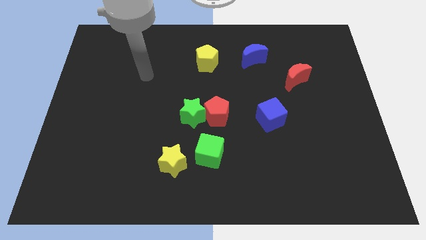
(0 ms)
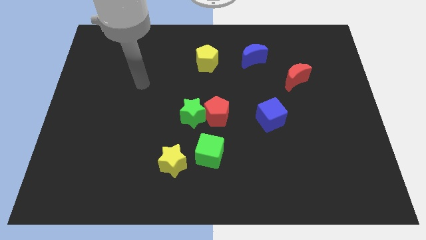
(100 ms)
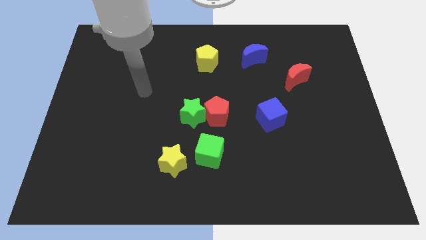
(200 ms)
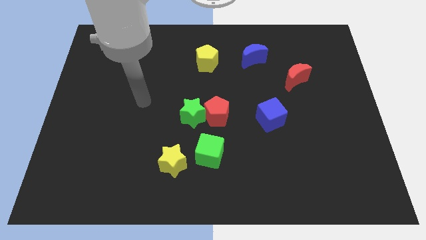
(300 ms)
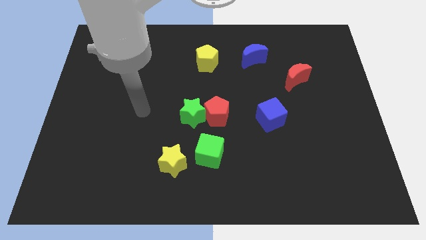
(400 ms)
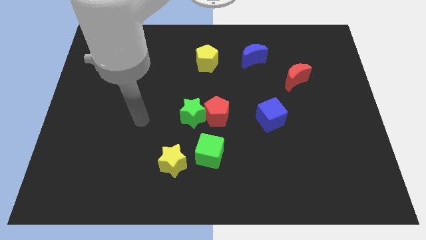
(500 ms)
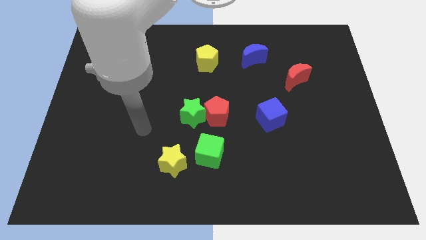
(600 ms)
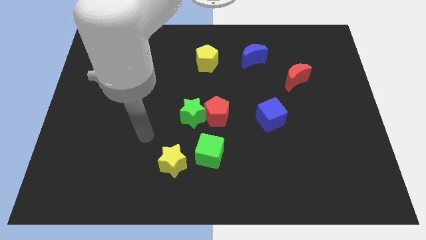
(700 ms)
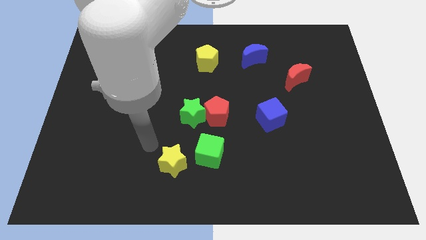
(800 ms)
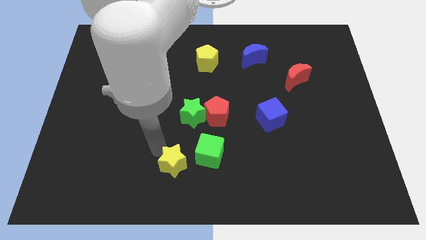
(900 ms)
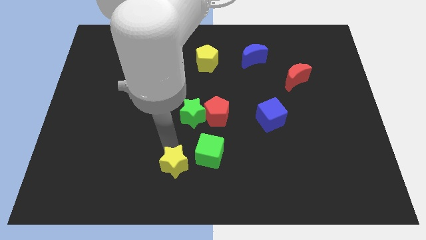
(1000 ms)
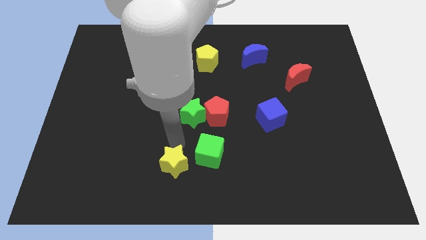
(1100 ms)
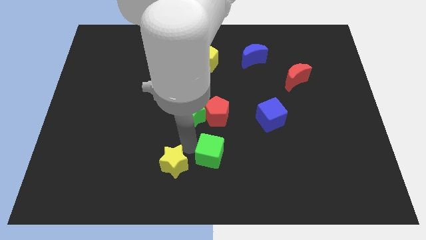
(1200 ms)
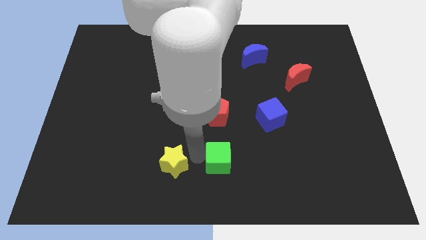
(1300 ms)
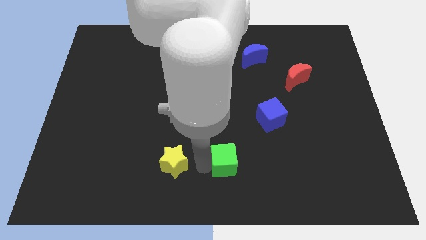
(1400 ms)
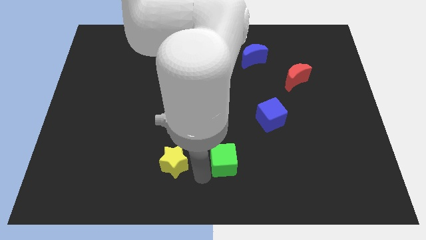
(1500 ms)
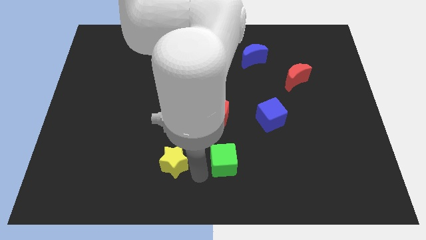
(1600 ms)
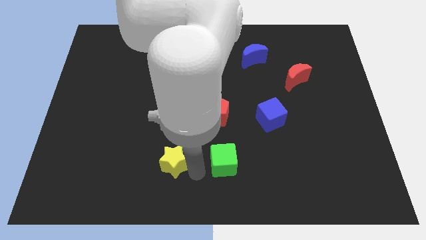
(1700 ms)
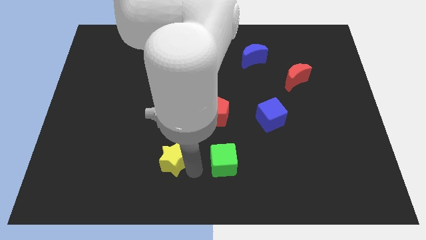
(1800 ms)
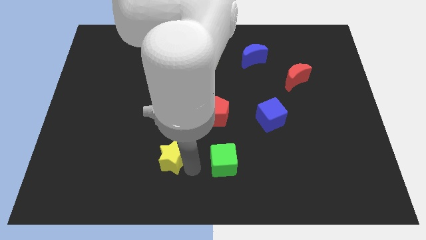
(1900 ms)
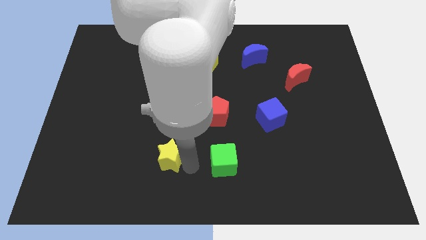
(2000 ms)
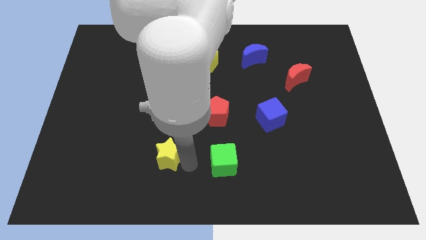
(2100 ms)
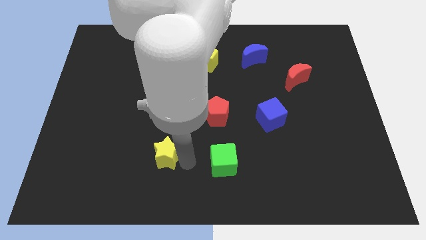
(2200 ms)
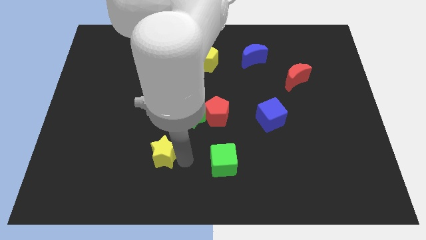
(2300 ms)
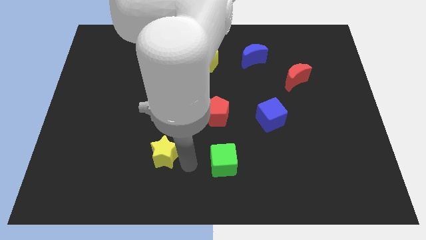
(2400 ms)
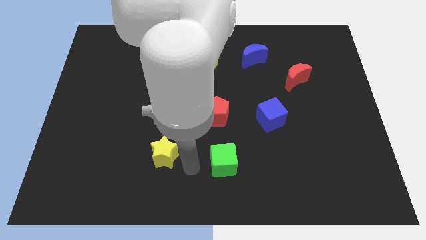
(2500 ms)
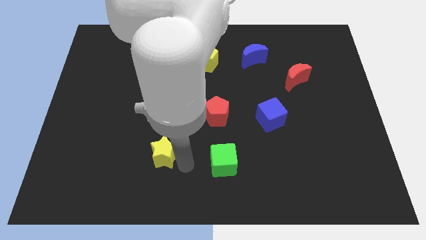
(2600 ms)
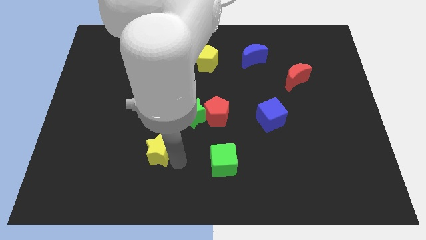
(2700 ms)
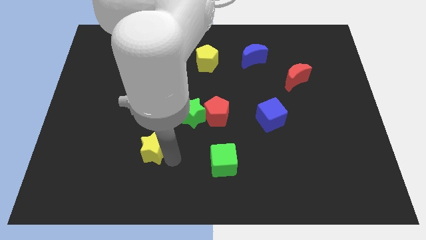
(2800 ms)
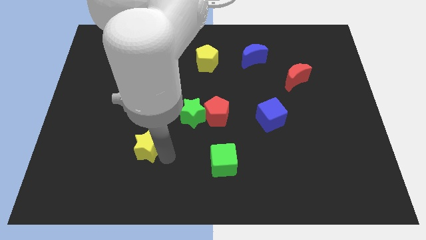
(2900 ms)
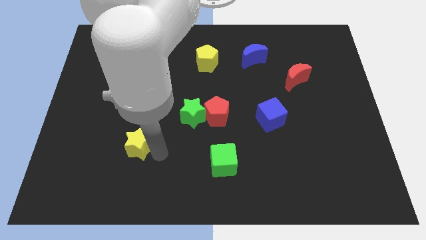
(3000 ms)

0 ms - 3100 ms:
slide the yellow star up and to the left a bit

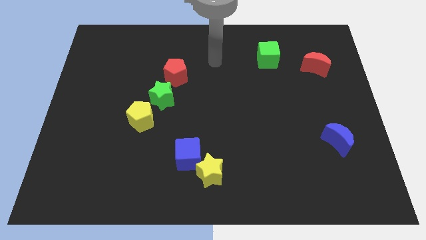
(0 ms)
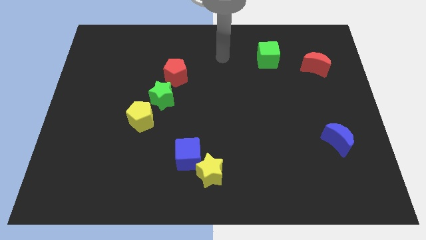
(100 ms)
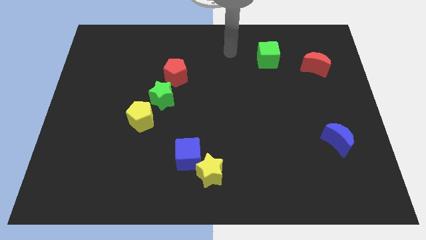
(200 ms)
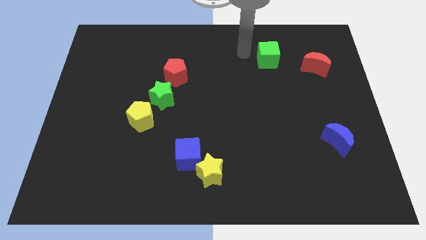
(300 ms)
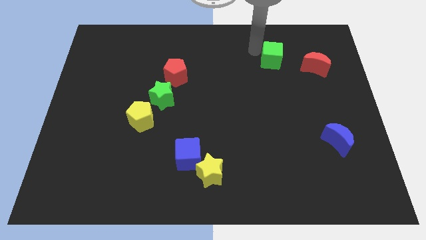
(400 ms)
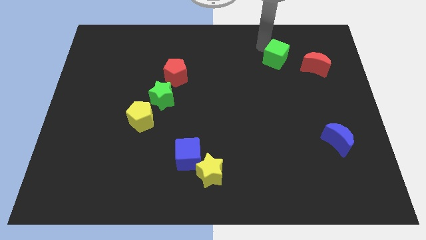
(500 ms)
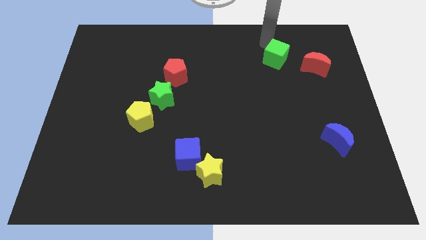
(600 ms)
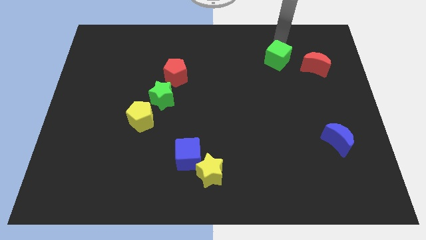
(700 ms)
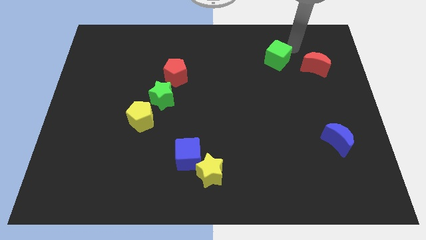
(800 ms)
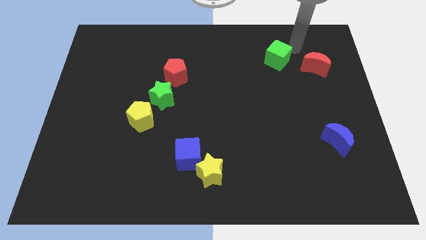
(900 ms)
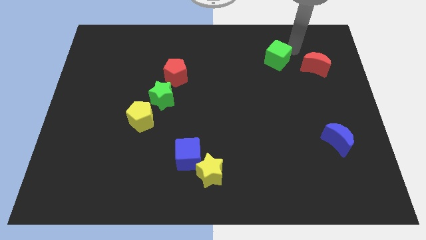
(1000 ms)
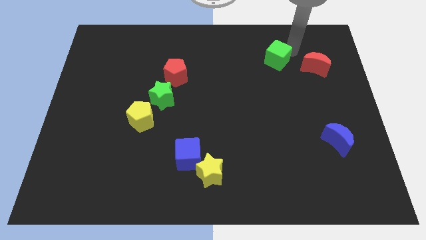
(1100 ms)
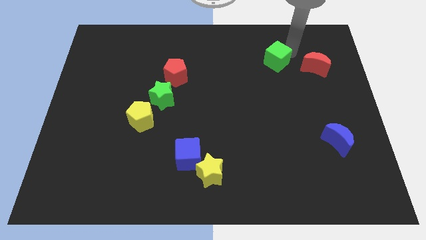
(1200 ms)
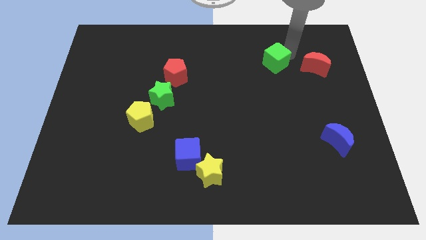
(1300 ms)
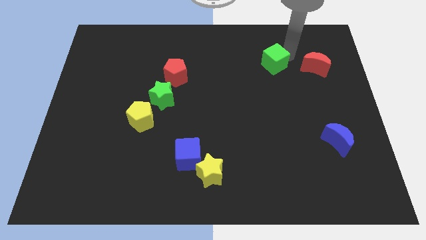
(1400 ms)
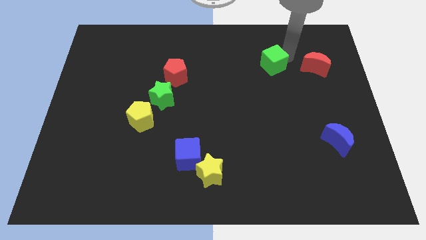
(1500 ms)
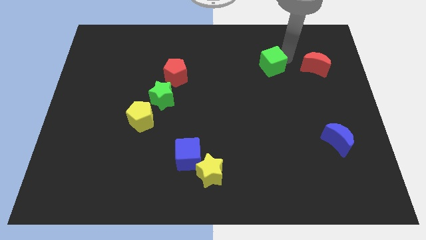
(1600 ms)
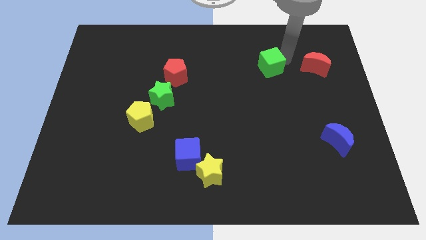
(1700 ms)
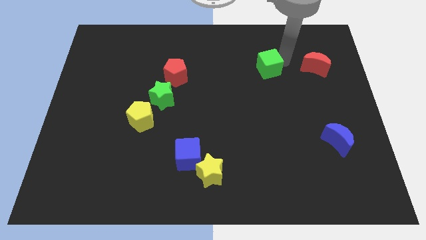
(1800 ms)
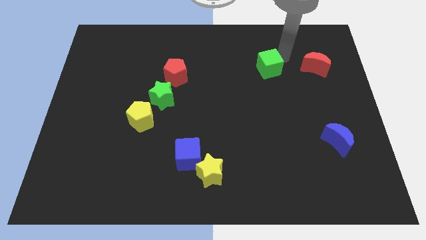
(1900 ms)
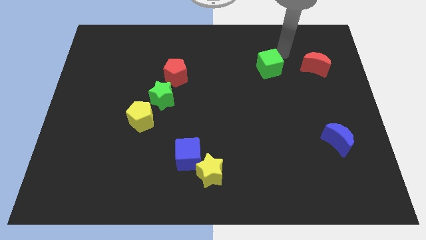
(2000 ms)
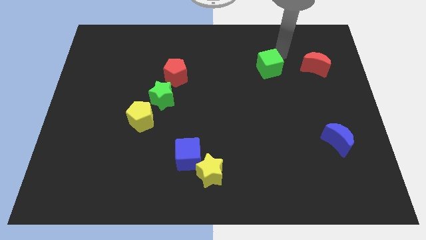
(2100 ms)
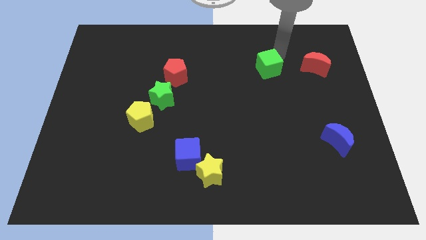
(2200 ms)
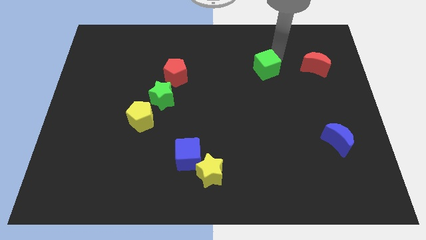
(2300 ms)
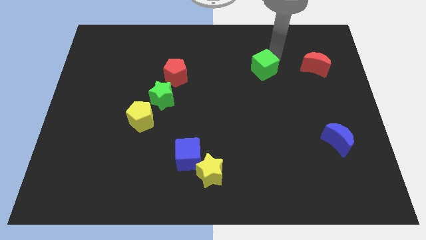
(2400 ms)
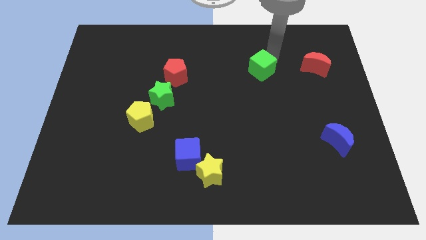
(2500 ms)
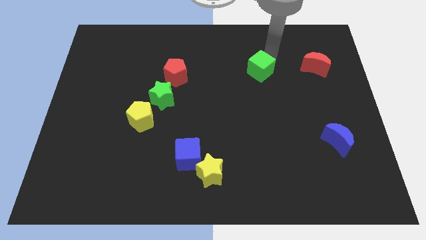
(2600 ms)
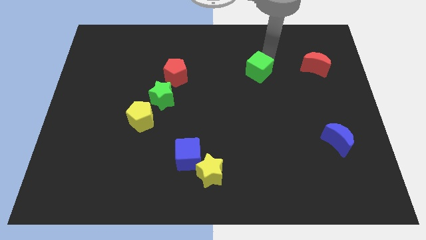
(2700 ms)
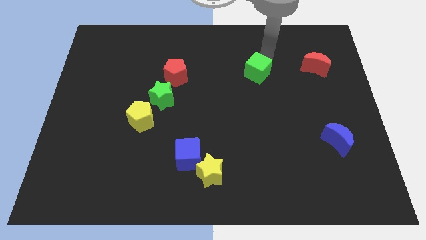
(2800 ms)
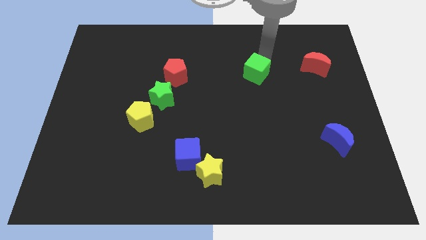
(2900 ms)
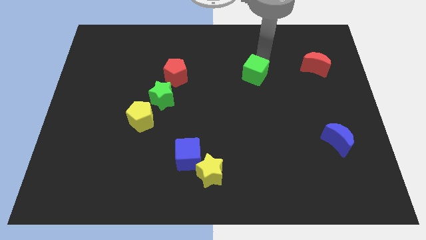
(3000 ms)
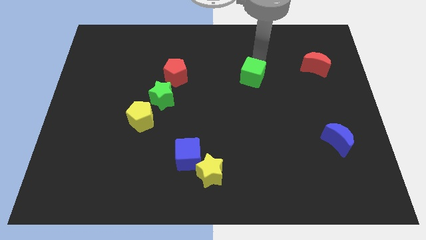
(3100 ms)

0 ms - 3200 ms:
slide the green cube down and then to the left a little bit

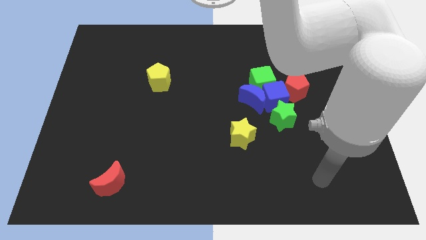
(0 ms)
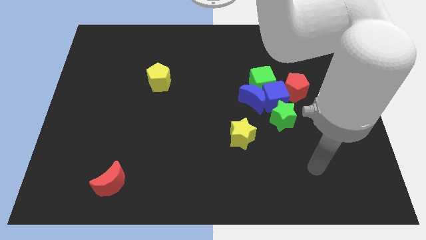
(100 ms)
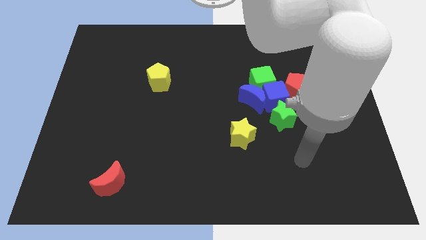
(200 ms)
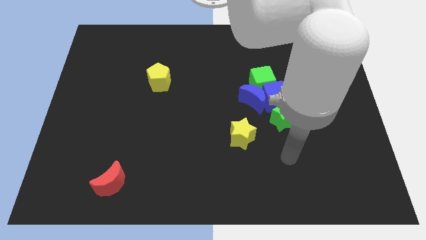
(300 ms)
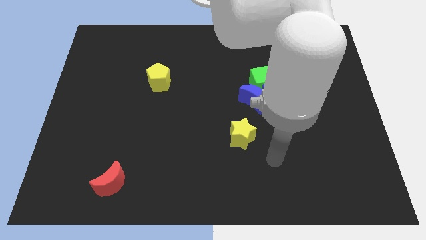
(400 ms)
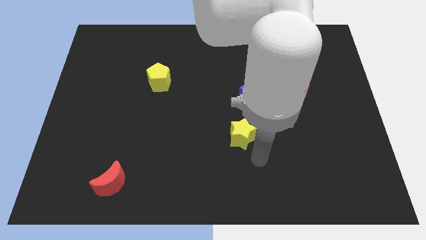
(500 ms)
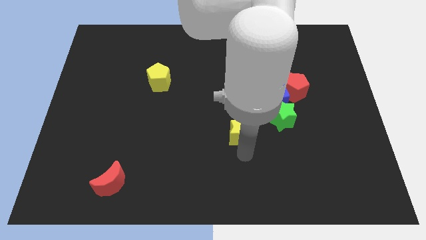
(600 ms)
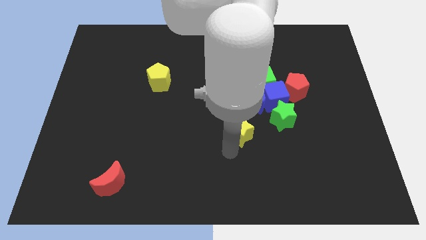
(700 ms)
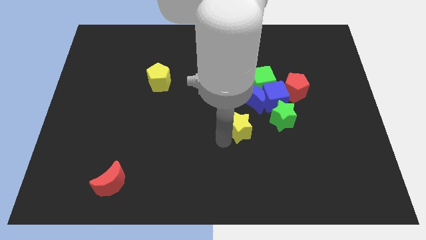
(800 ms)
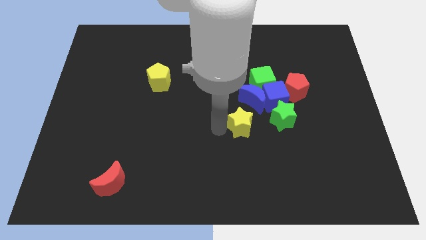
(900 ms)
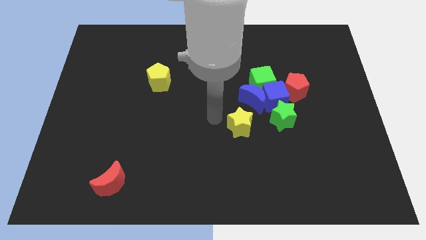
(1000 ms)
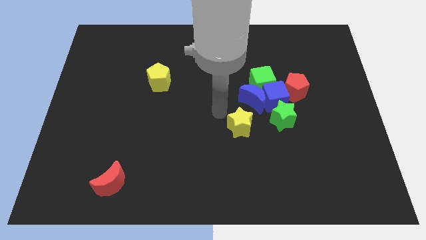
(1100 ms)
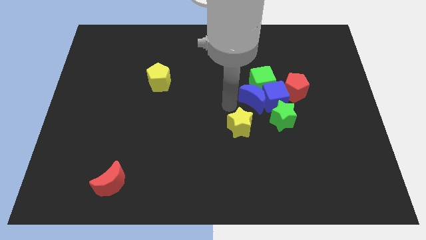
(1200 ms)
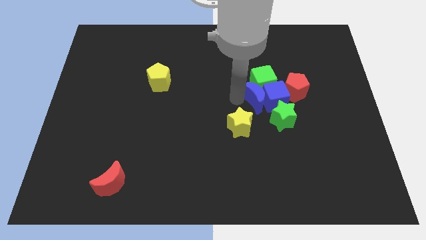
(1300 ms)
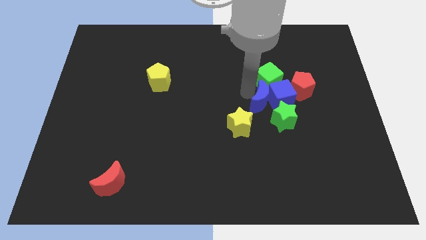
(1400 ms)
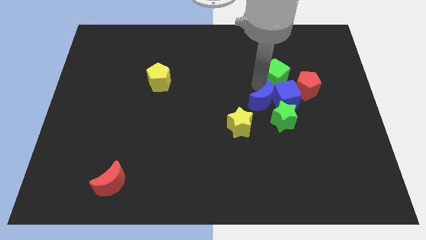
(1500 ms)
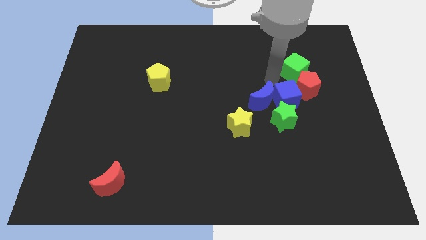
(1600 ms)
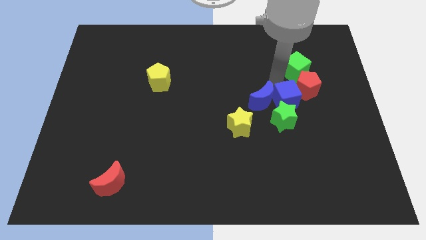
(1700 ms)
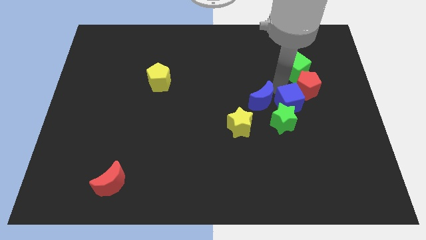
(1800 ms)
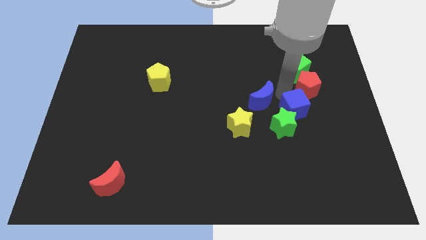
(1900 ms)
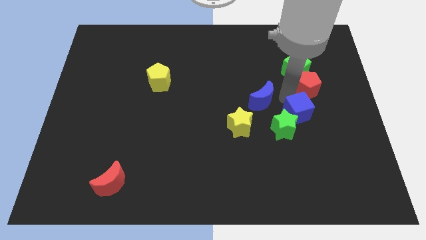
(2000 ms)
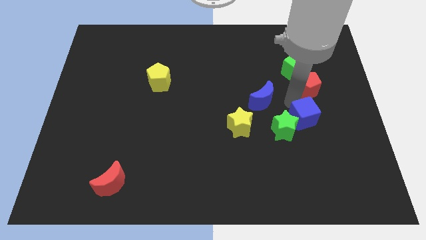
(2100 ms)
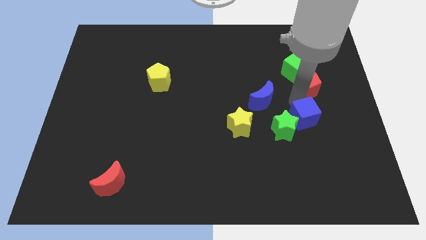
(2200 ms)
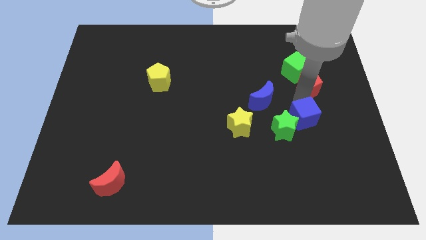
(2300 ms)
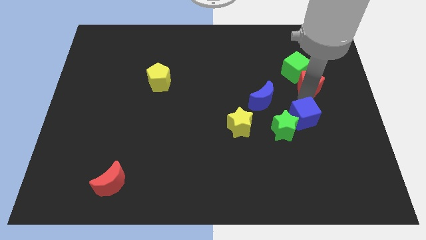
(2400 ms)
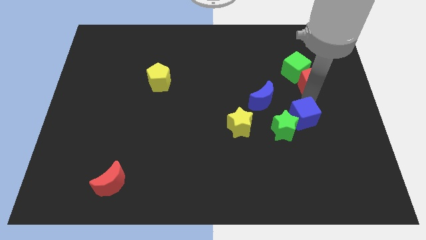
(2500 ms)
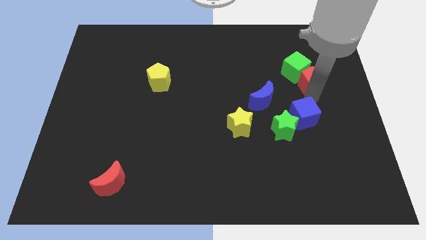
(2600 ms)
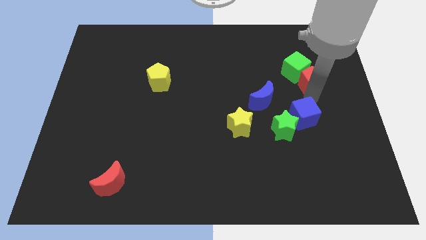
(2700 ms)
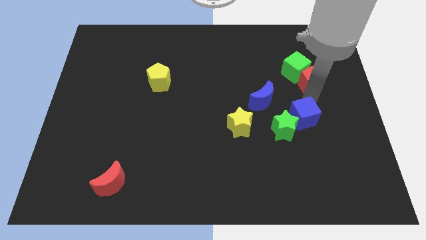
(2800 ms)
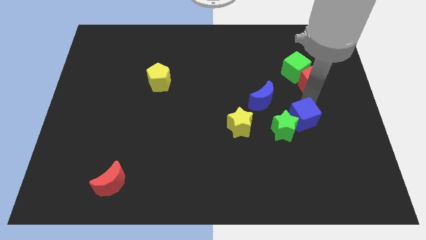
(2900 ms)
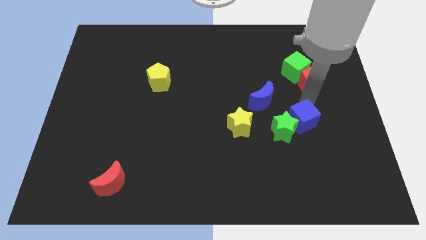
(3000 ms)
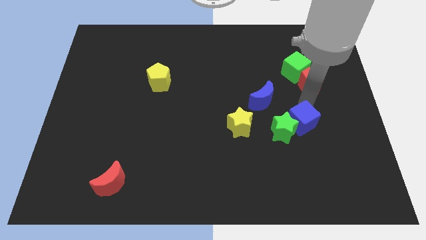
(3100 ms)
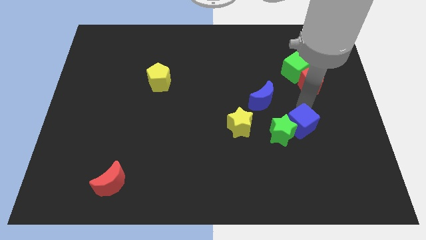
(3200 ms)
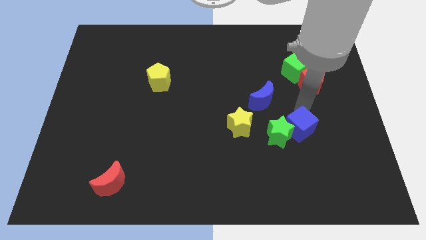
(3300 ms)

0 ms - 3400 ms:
slightly push the blue cube downwards
